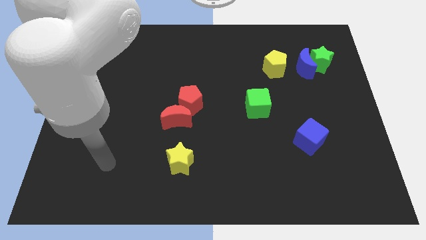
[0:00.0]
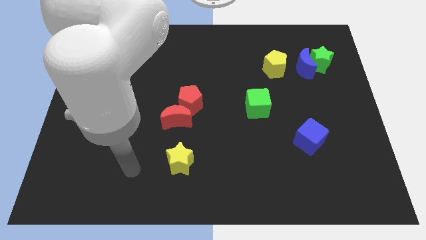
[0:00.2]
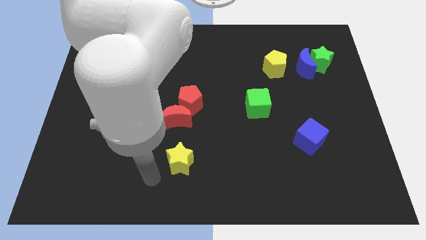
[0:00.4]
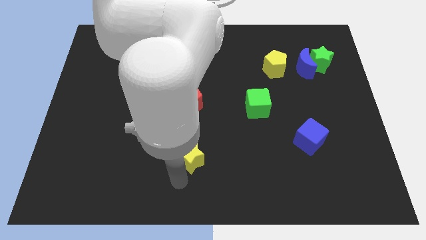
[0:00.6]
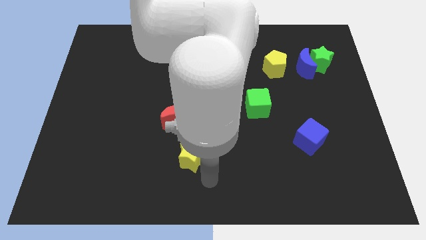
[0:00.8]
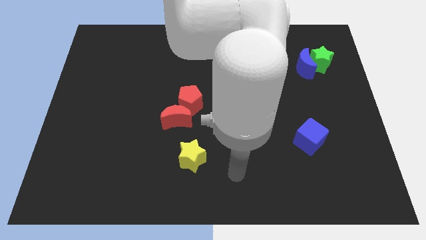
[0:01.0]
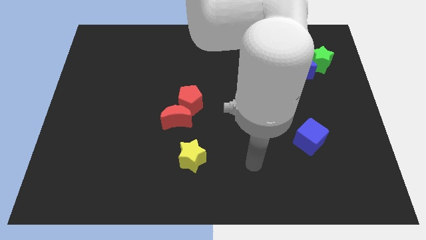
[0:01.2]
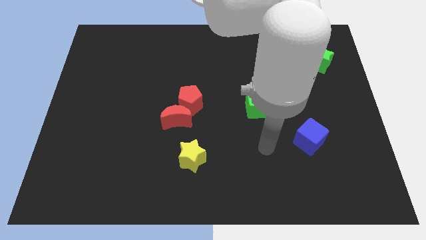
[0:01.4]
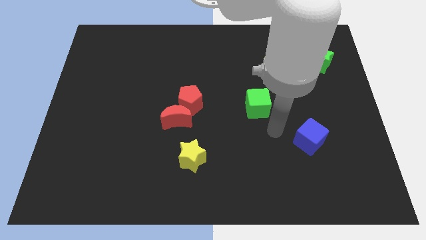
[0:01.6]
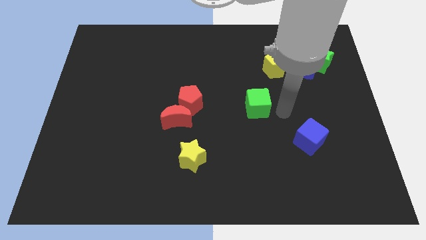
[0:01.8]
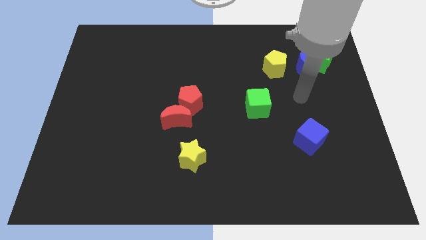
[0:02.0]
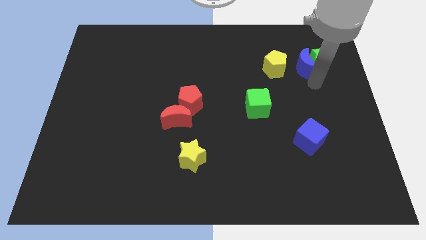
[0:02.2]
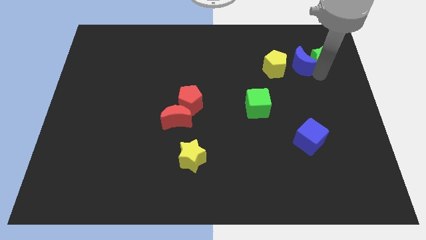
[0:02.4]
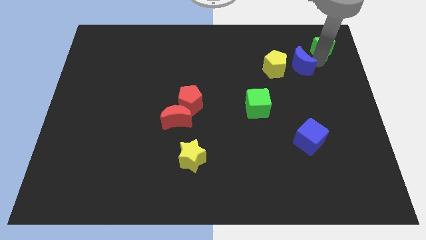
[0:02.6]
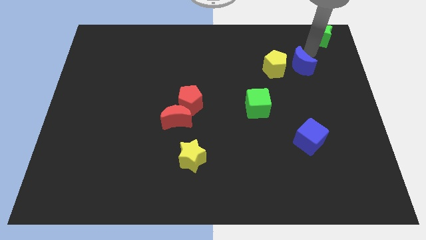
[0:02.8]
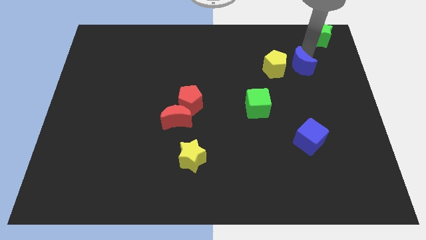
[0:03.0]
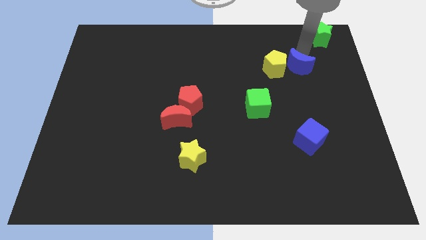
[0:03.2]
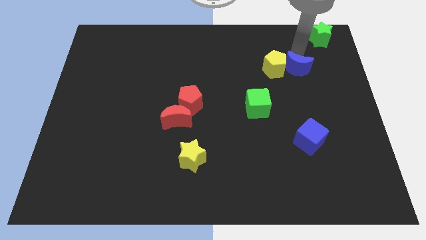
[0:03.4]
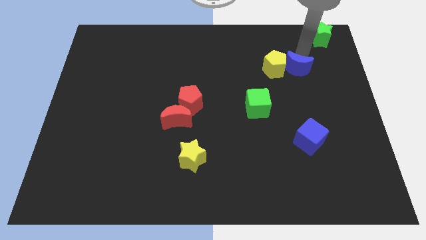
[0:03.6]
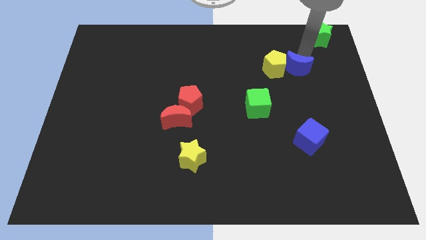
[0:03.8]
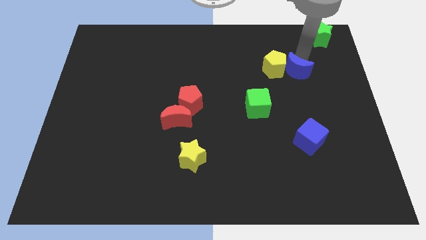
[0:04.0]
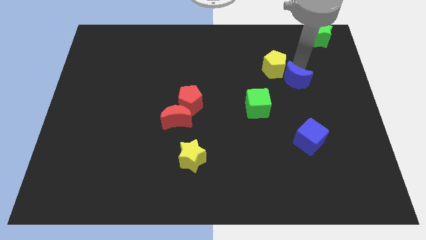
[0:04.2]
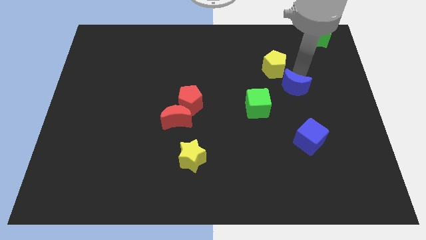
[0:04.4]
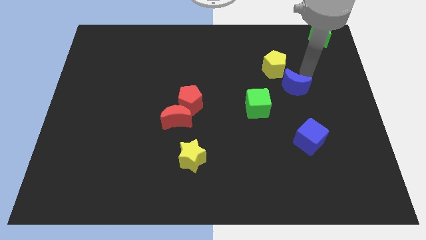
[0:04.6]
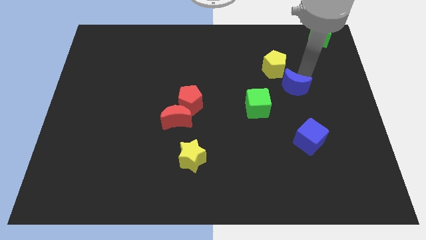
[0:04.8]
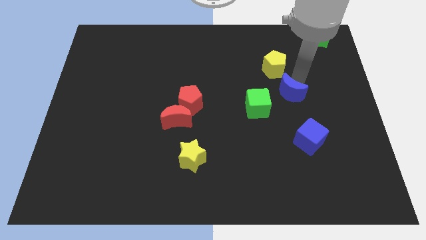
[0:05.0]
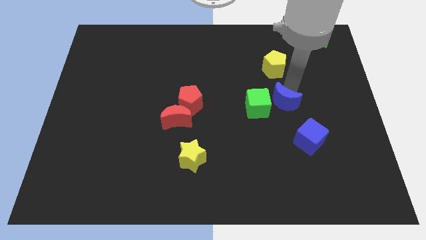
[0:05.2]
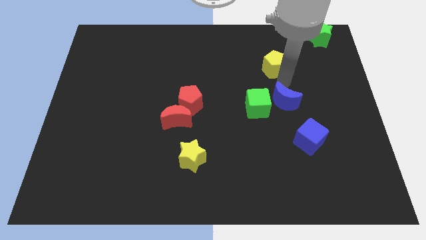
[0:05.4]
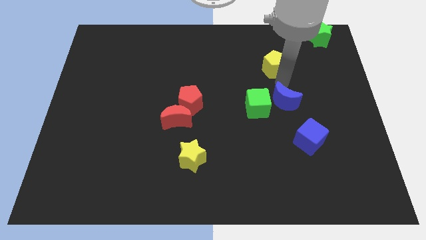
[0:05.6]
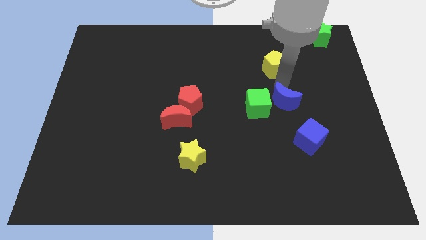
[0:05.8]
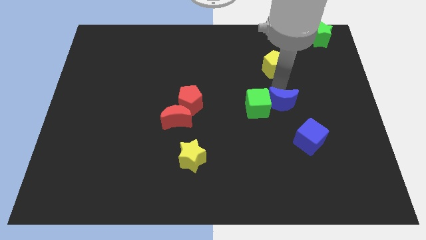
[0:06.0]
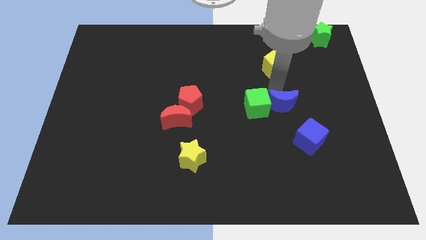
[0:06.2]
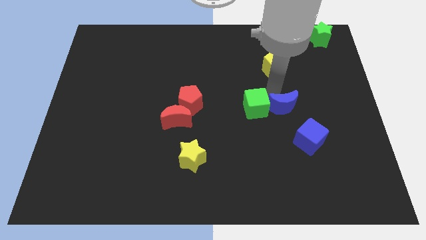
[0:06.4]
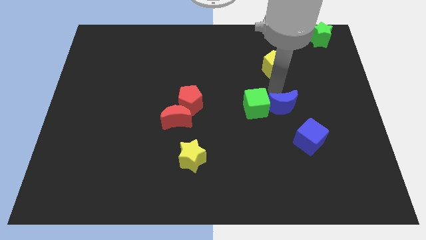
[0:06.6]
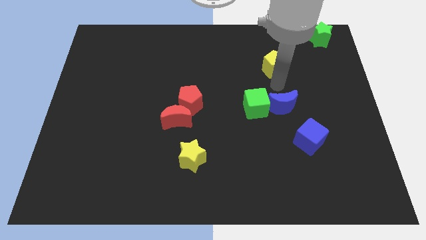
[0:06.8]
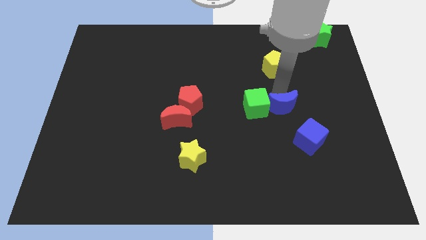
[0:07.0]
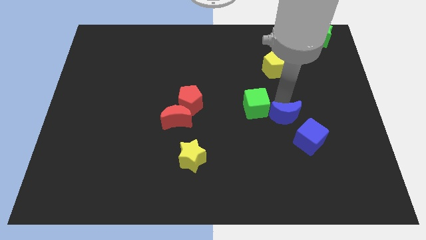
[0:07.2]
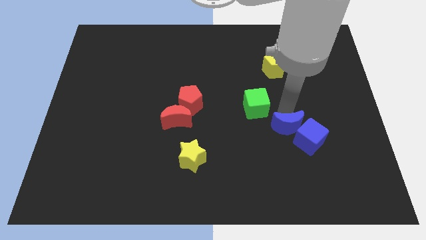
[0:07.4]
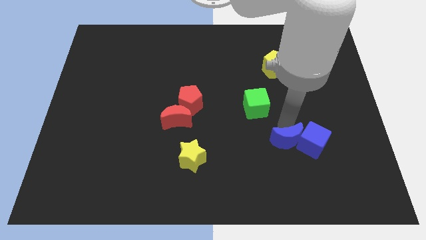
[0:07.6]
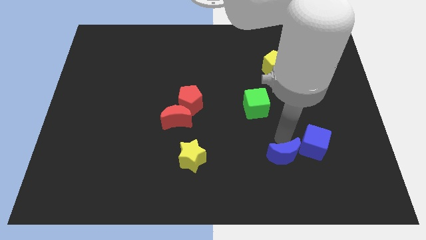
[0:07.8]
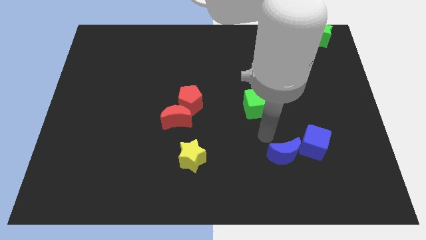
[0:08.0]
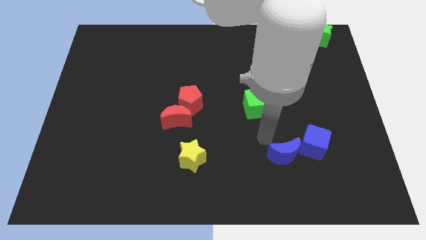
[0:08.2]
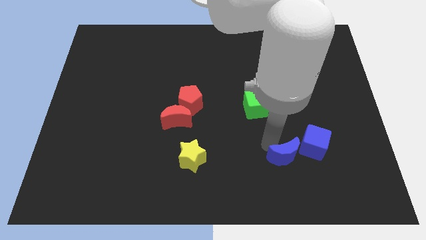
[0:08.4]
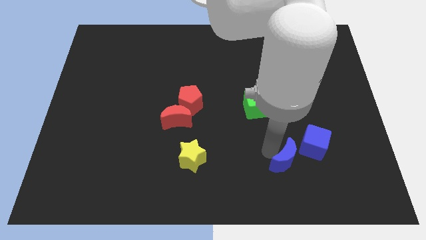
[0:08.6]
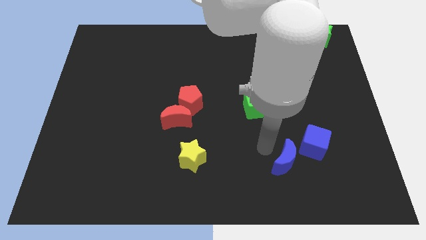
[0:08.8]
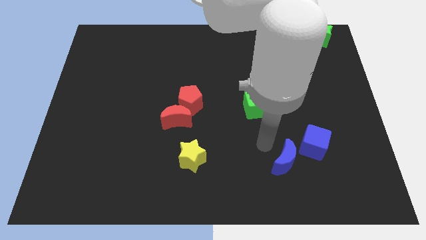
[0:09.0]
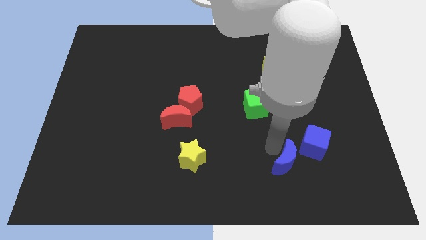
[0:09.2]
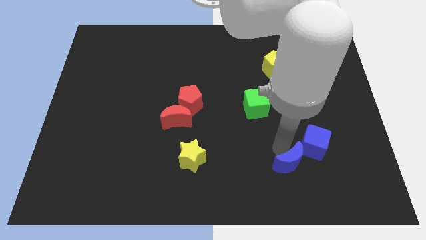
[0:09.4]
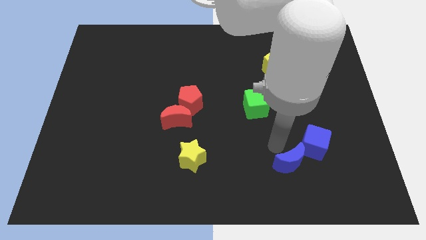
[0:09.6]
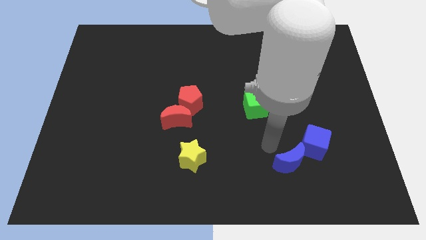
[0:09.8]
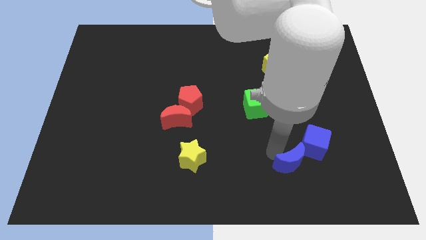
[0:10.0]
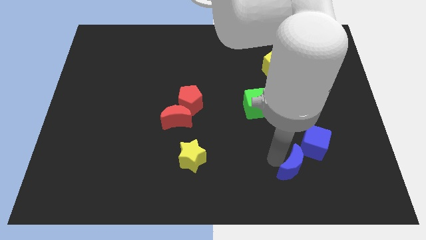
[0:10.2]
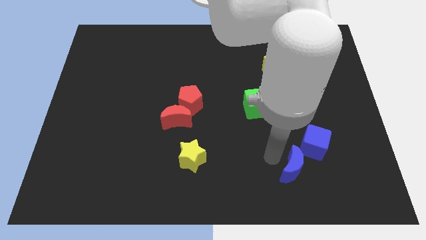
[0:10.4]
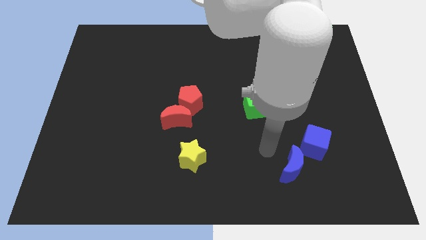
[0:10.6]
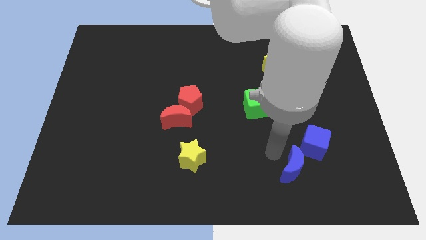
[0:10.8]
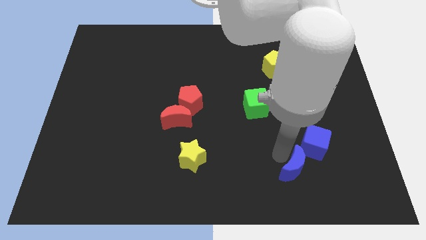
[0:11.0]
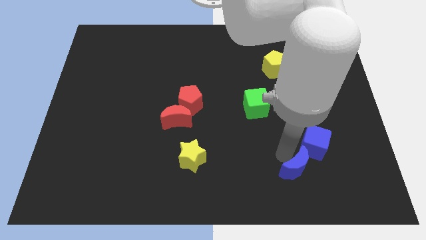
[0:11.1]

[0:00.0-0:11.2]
push the blue moon below the blue cube

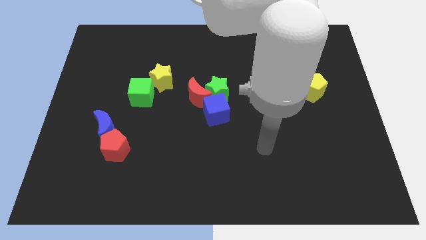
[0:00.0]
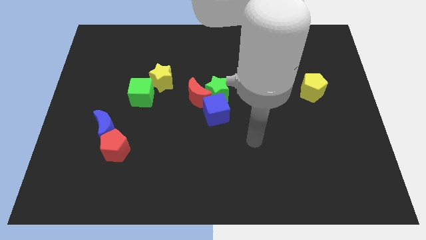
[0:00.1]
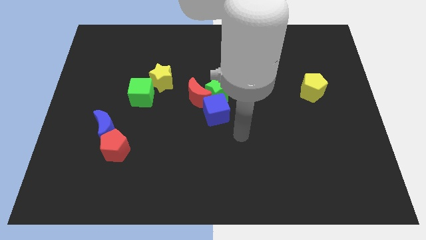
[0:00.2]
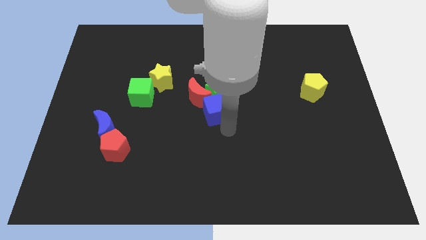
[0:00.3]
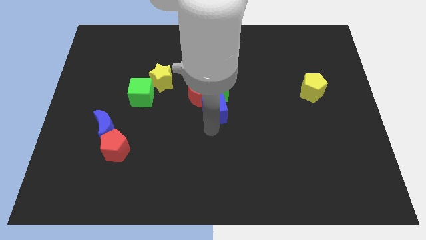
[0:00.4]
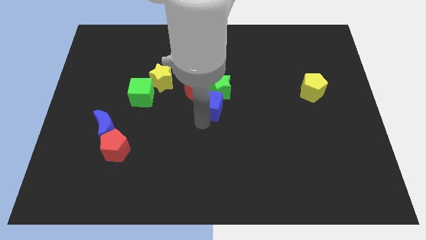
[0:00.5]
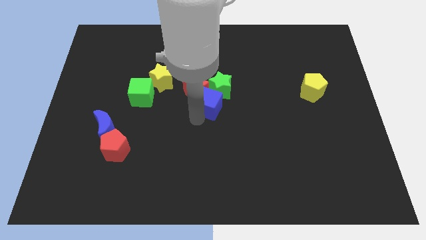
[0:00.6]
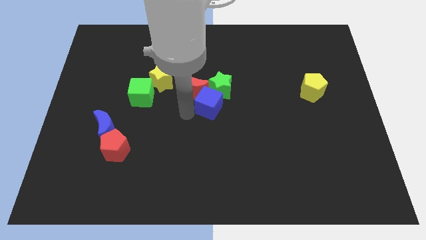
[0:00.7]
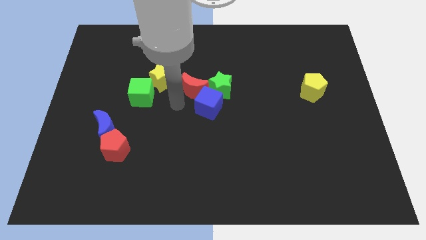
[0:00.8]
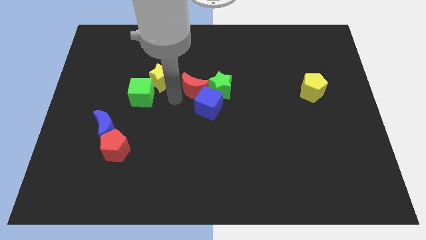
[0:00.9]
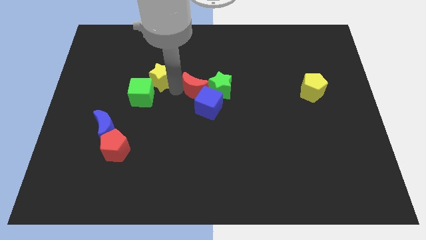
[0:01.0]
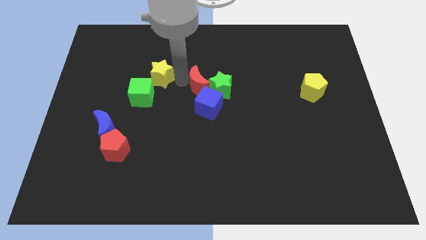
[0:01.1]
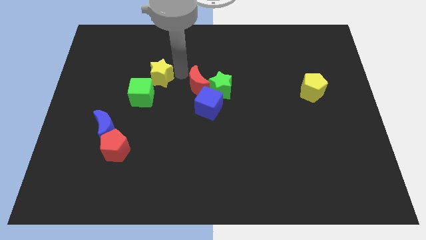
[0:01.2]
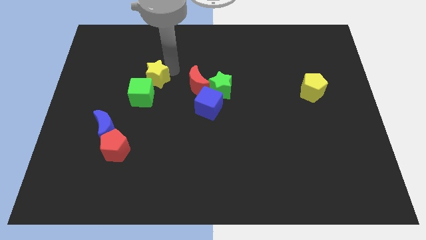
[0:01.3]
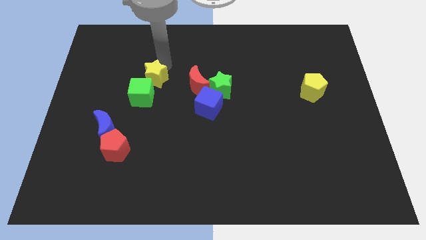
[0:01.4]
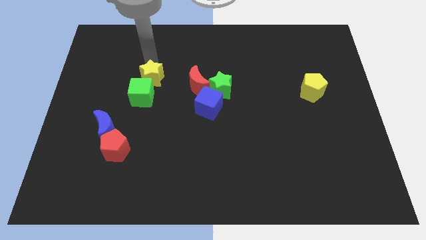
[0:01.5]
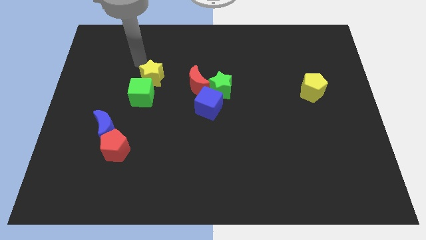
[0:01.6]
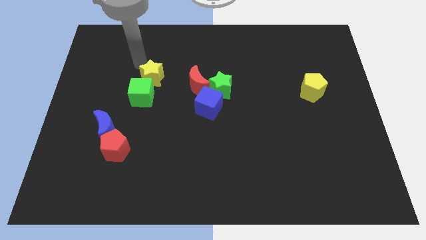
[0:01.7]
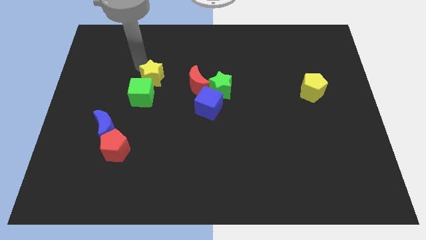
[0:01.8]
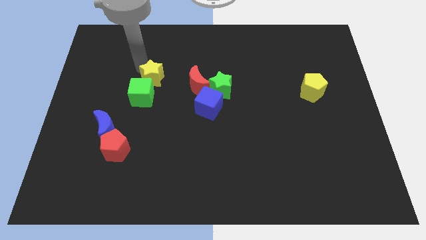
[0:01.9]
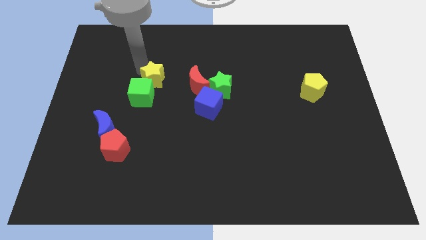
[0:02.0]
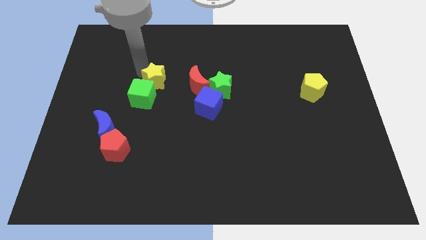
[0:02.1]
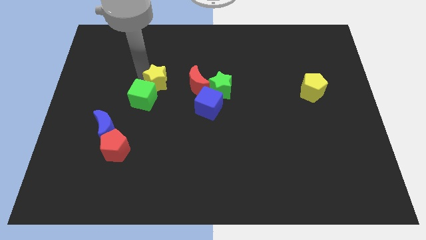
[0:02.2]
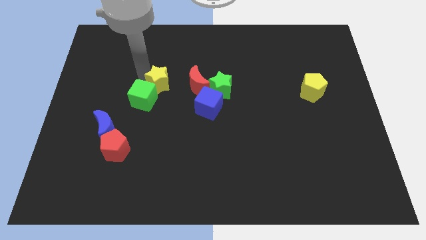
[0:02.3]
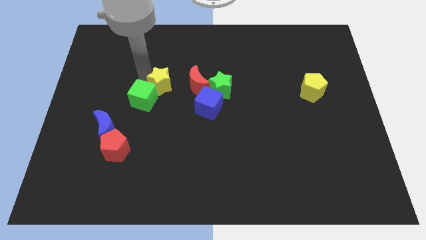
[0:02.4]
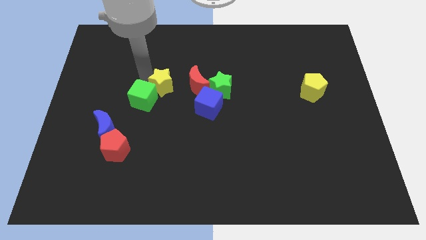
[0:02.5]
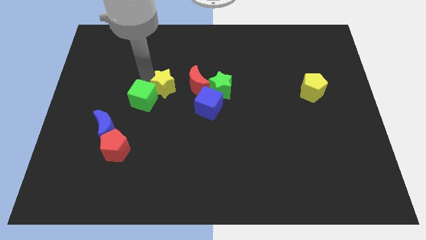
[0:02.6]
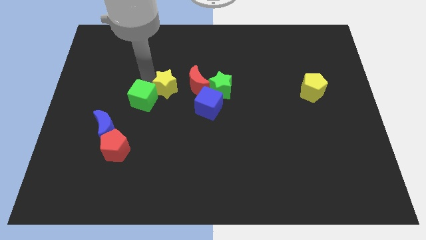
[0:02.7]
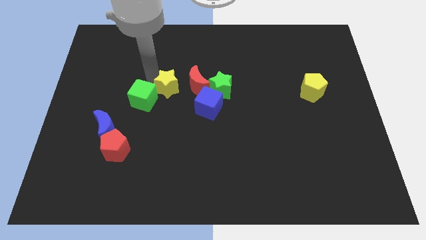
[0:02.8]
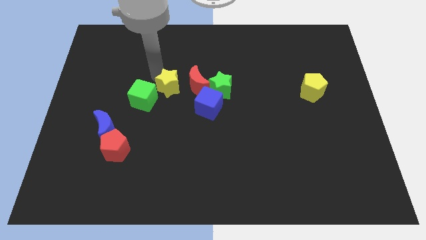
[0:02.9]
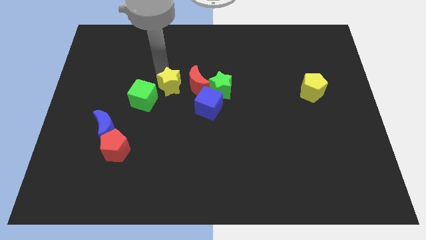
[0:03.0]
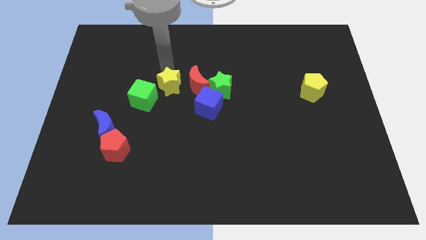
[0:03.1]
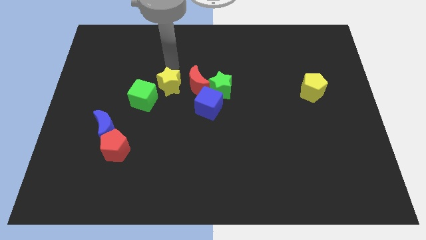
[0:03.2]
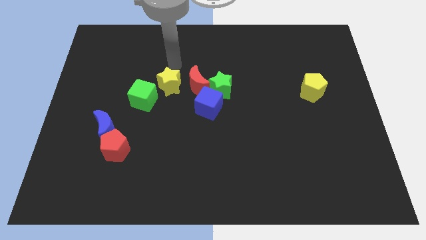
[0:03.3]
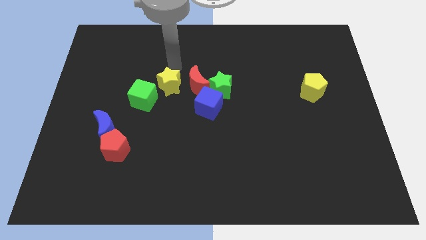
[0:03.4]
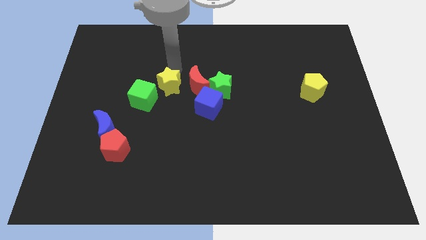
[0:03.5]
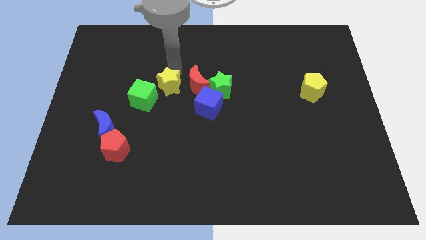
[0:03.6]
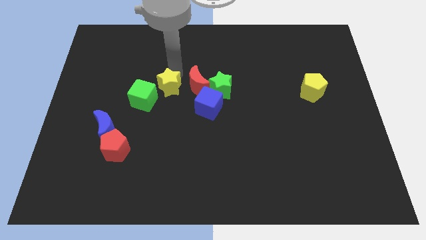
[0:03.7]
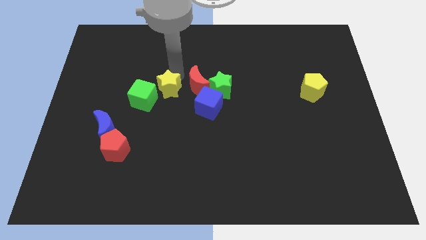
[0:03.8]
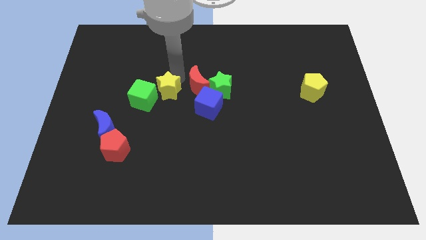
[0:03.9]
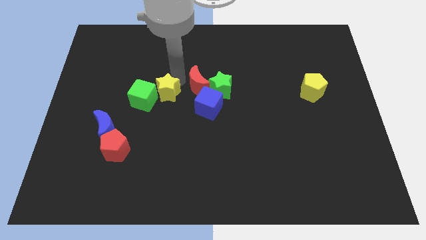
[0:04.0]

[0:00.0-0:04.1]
move the yellow star left of the blue cube
